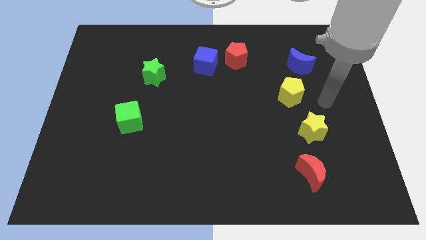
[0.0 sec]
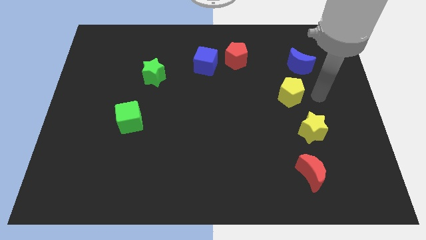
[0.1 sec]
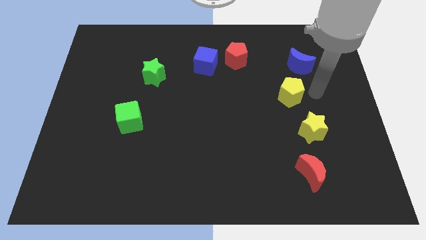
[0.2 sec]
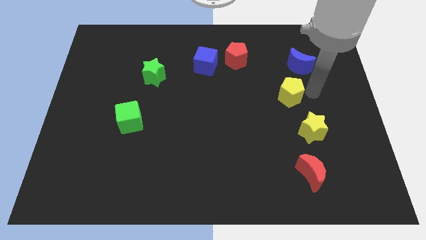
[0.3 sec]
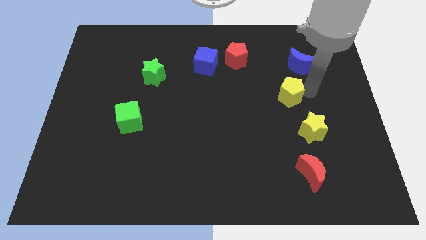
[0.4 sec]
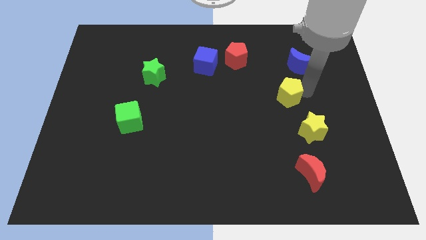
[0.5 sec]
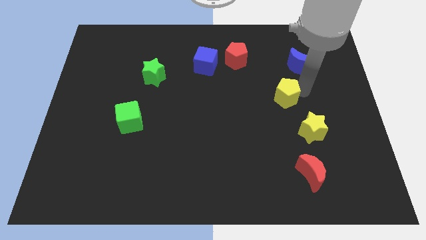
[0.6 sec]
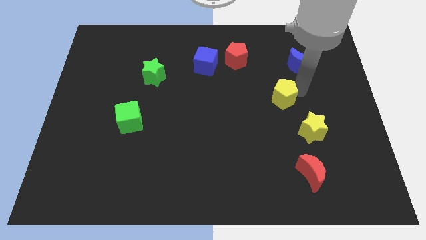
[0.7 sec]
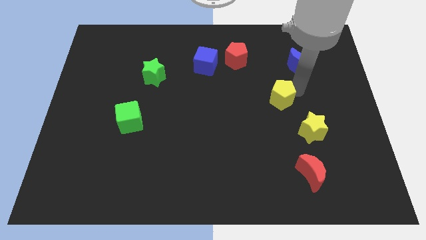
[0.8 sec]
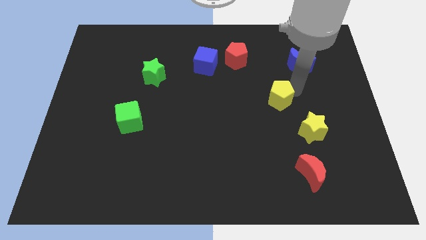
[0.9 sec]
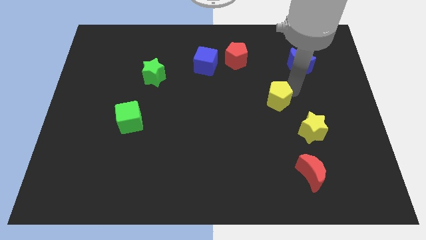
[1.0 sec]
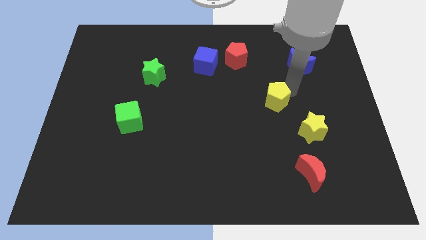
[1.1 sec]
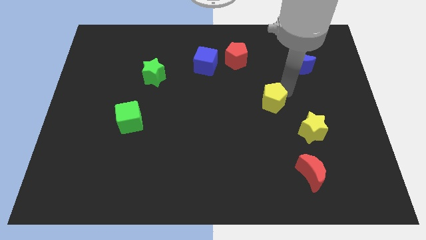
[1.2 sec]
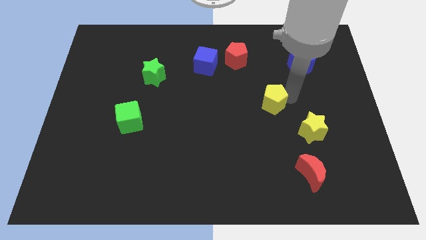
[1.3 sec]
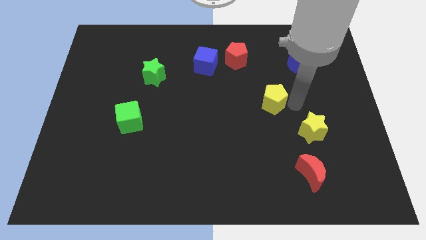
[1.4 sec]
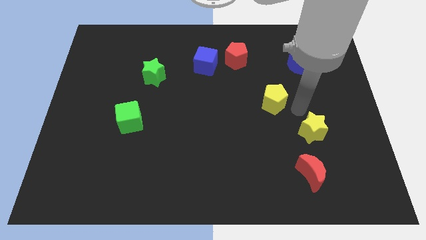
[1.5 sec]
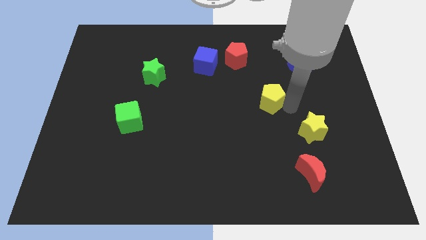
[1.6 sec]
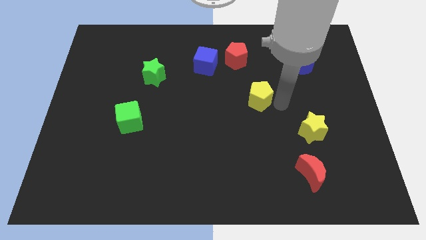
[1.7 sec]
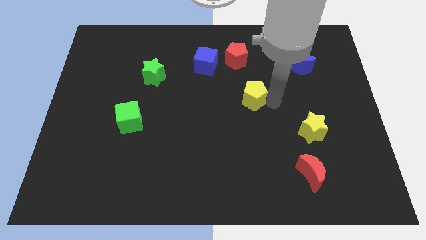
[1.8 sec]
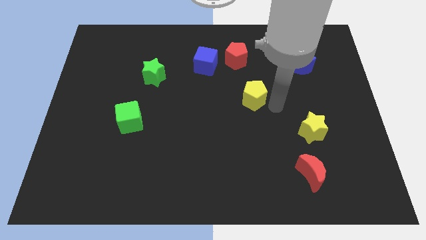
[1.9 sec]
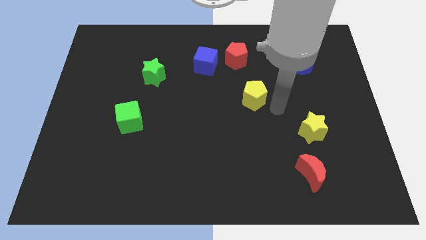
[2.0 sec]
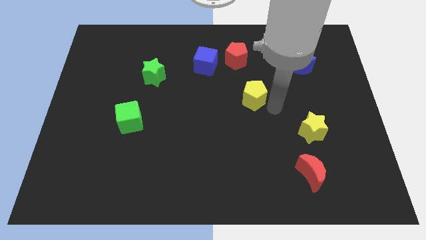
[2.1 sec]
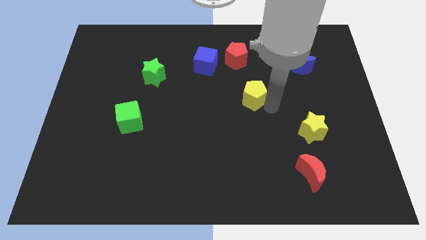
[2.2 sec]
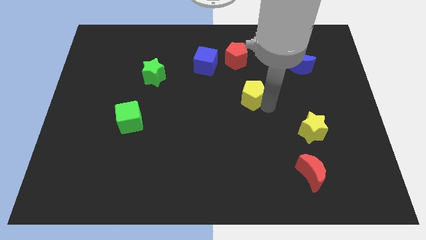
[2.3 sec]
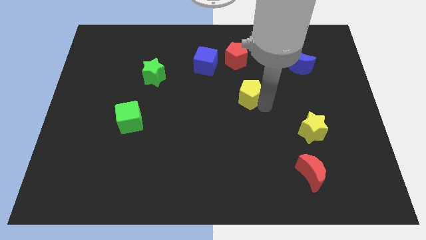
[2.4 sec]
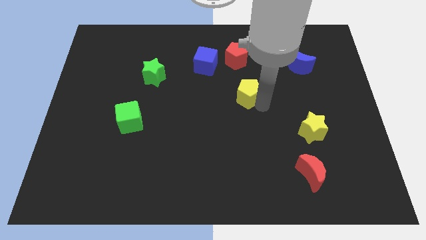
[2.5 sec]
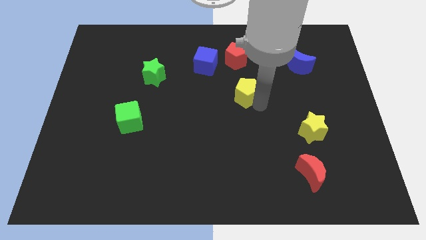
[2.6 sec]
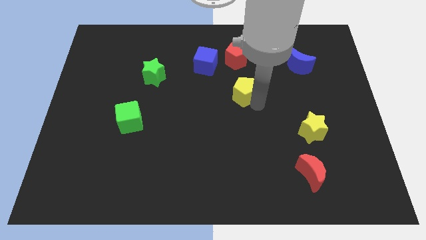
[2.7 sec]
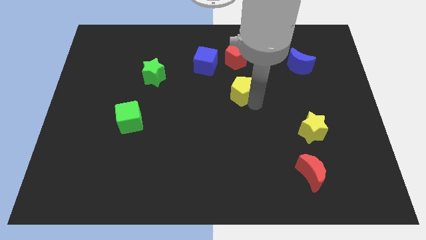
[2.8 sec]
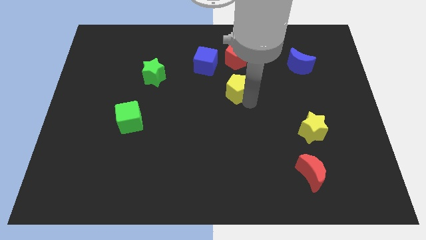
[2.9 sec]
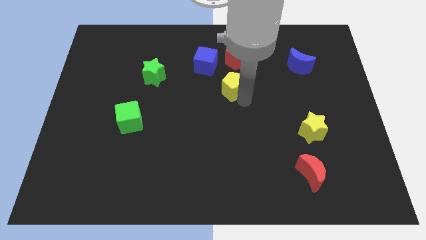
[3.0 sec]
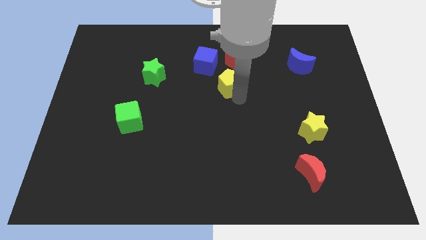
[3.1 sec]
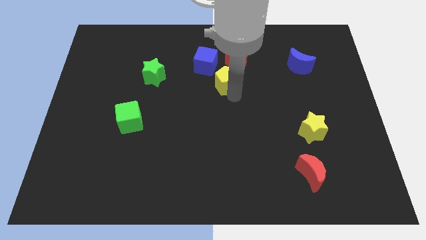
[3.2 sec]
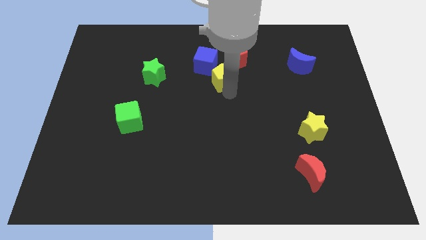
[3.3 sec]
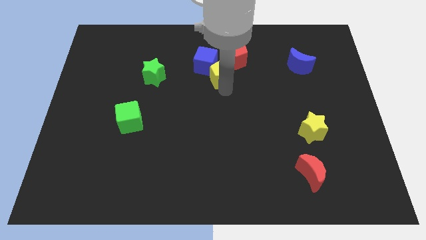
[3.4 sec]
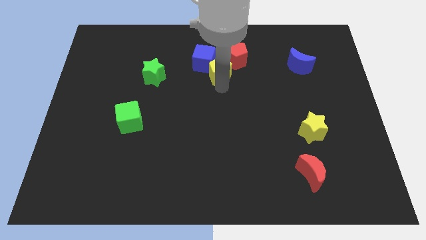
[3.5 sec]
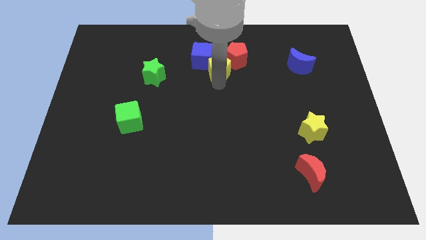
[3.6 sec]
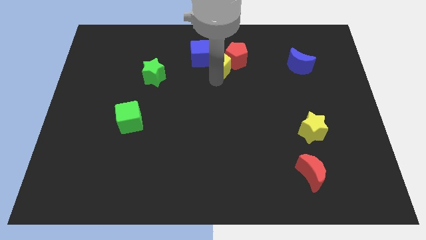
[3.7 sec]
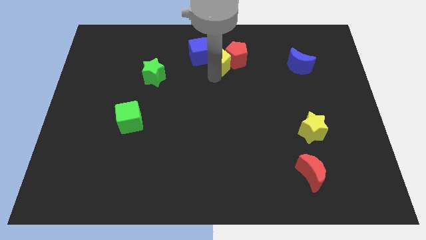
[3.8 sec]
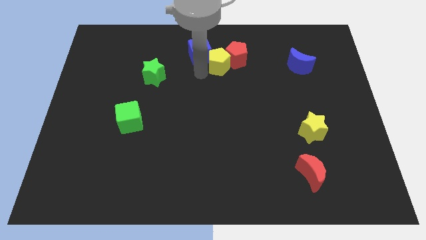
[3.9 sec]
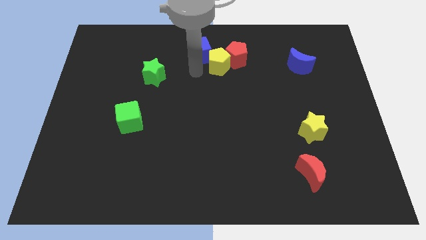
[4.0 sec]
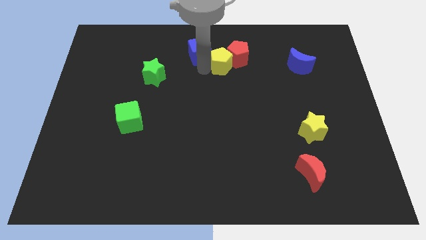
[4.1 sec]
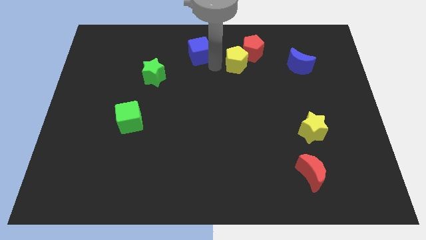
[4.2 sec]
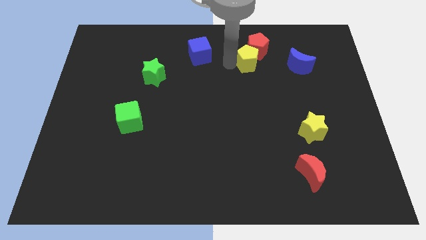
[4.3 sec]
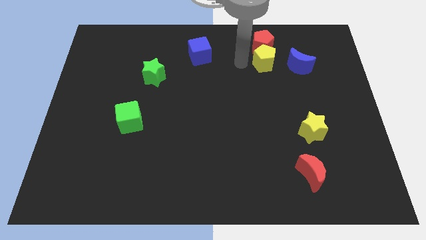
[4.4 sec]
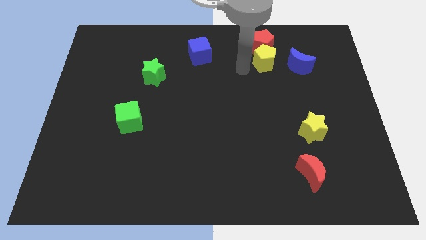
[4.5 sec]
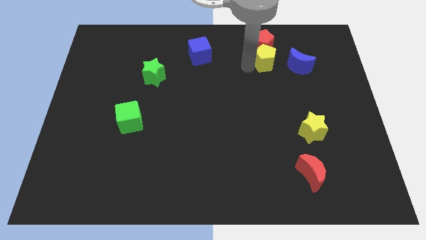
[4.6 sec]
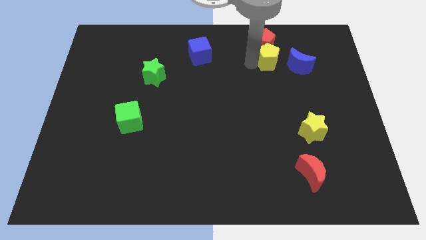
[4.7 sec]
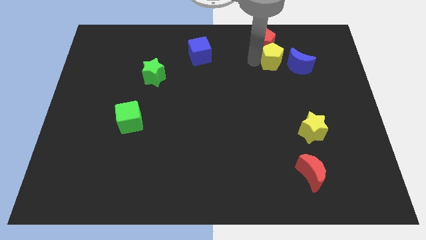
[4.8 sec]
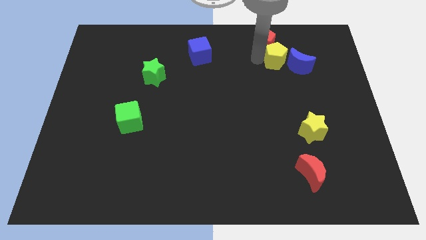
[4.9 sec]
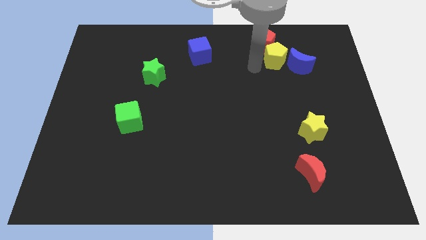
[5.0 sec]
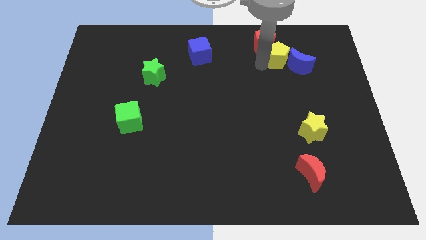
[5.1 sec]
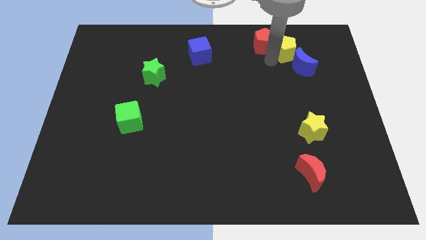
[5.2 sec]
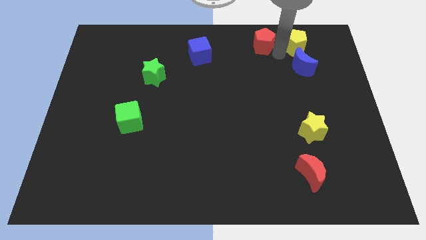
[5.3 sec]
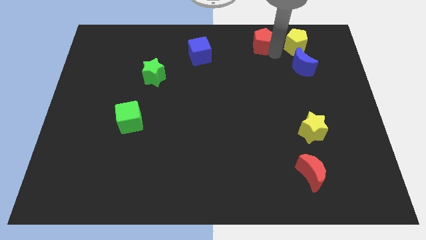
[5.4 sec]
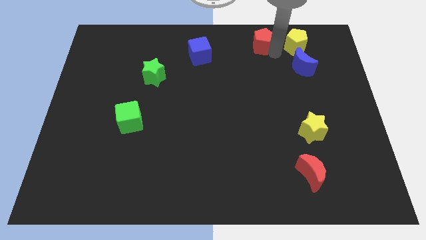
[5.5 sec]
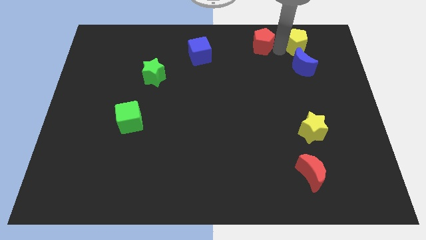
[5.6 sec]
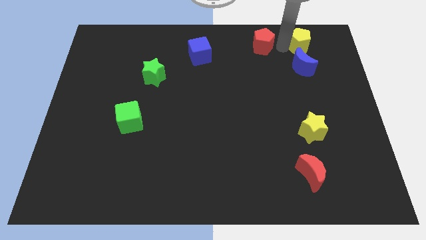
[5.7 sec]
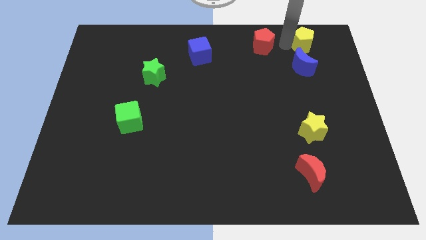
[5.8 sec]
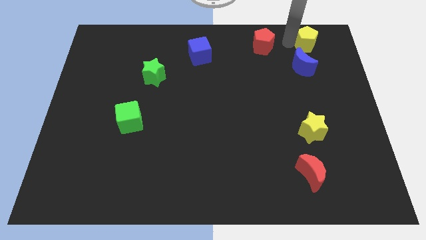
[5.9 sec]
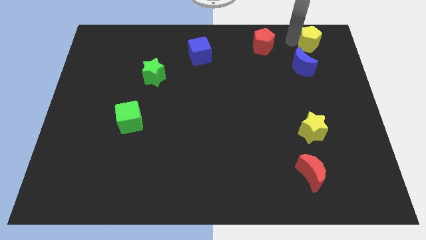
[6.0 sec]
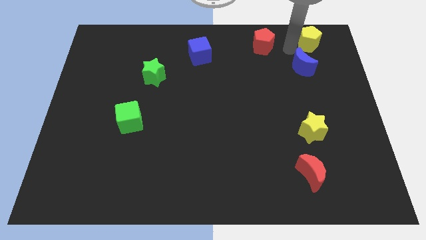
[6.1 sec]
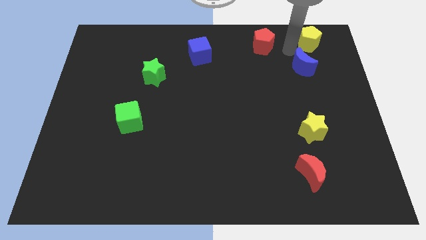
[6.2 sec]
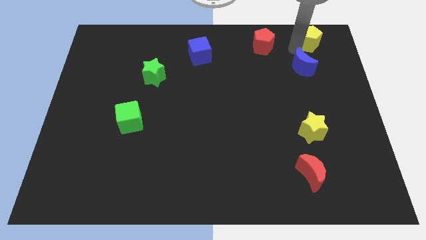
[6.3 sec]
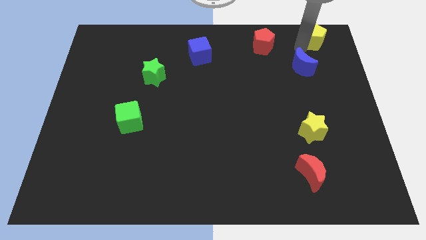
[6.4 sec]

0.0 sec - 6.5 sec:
put the yellow pentagon to the top right corner

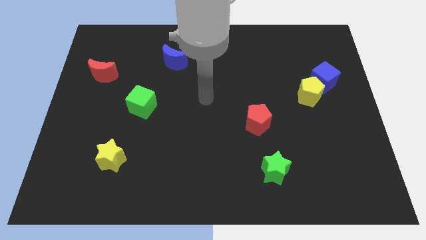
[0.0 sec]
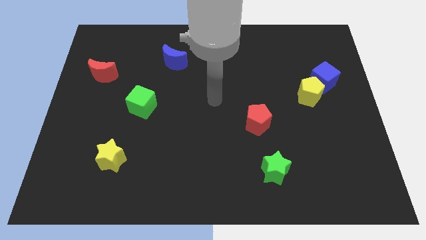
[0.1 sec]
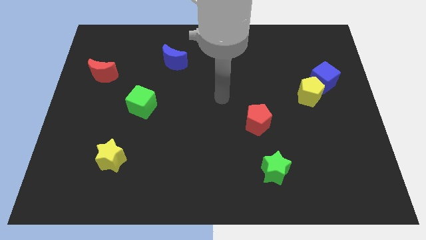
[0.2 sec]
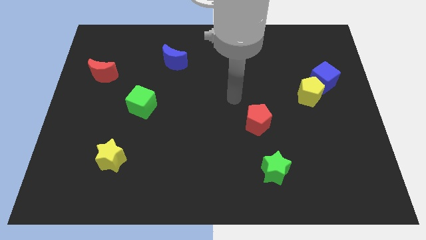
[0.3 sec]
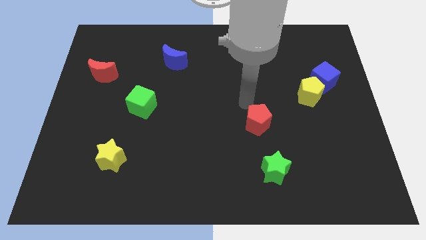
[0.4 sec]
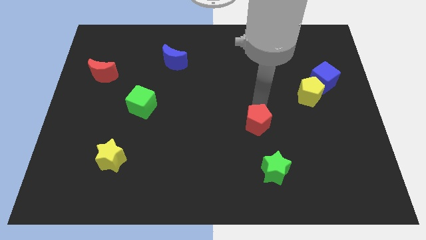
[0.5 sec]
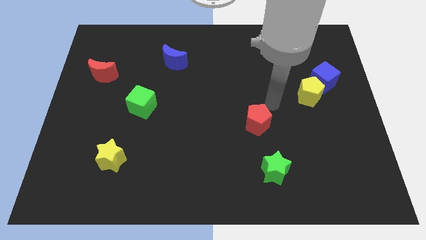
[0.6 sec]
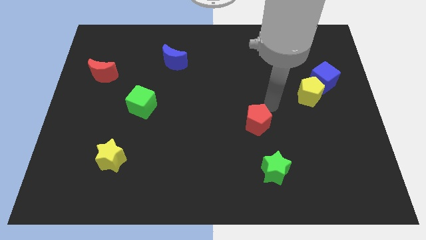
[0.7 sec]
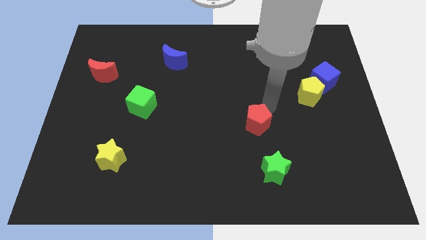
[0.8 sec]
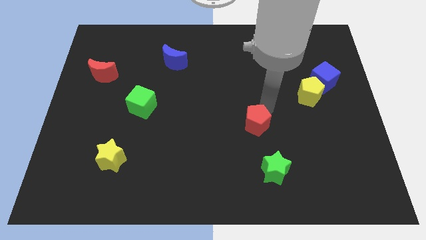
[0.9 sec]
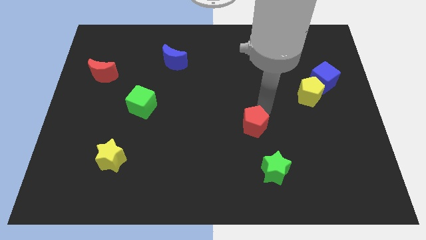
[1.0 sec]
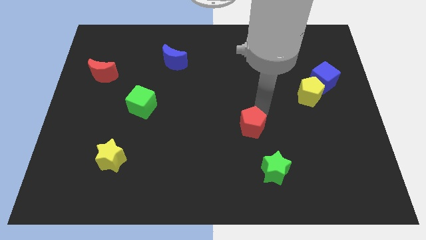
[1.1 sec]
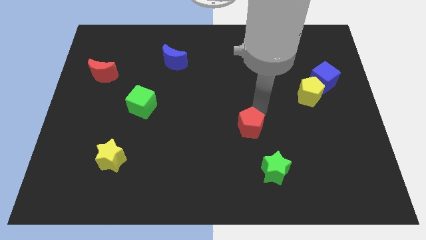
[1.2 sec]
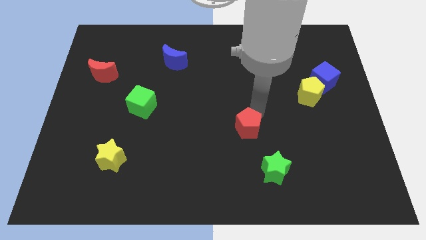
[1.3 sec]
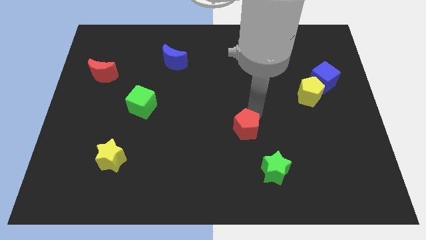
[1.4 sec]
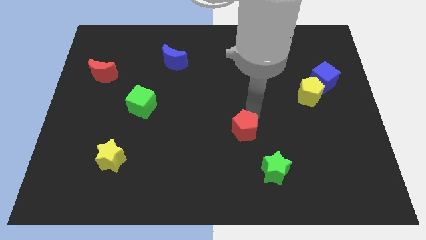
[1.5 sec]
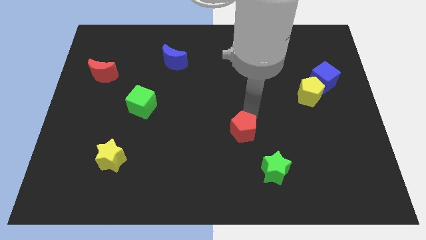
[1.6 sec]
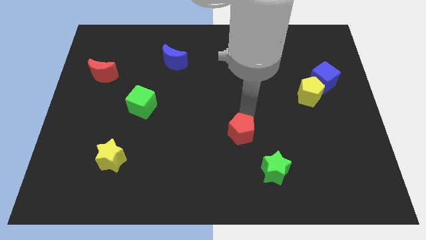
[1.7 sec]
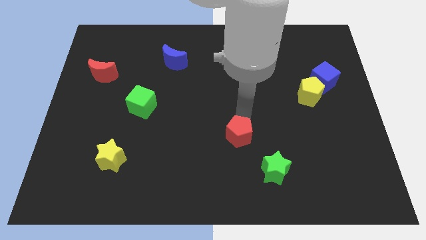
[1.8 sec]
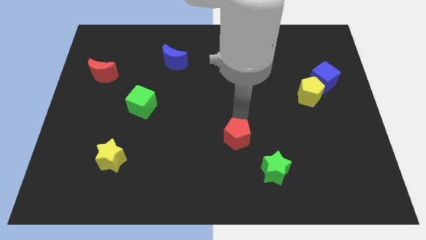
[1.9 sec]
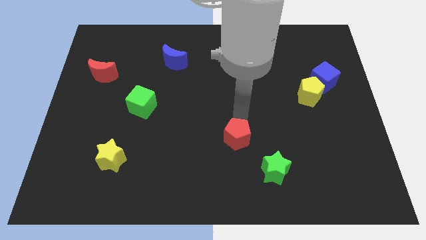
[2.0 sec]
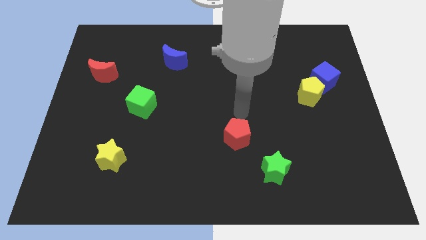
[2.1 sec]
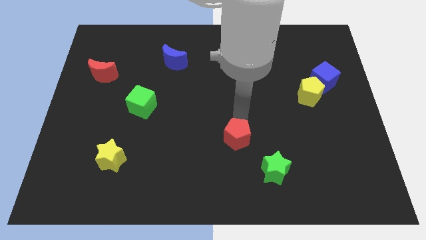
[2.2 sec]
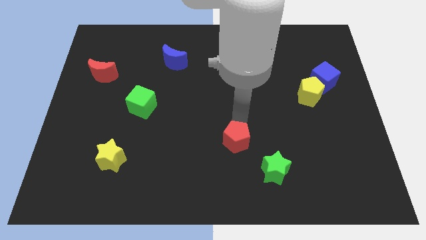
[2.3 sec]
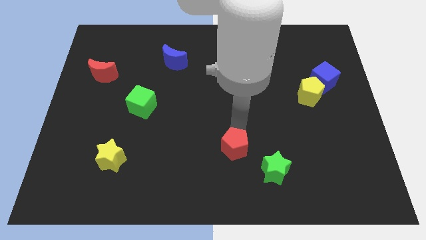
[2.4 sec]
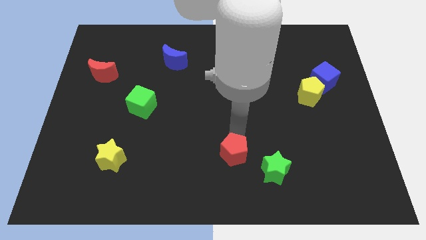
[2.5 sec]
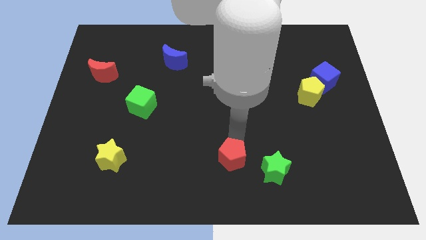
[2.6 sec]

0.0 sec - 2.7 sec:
put the red pentagon to the bottom side
